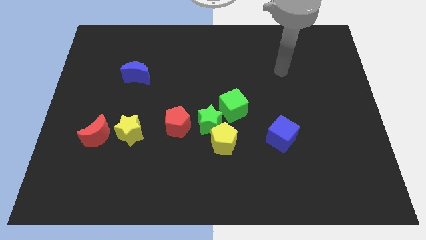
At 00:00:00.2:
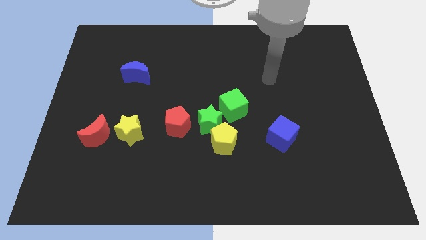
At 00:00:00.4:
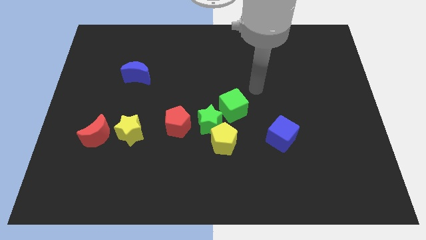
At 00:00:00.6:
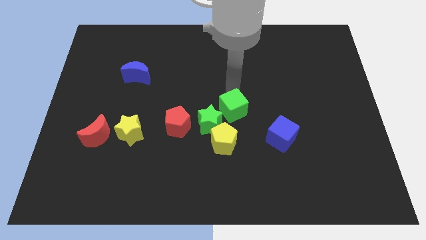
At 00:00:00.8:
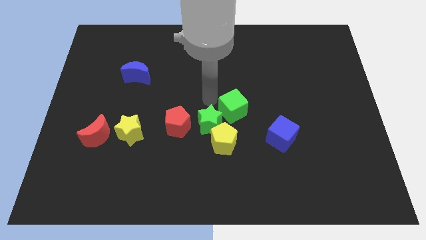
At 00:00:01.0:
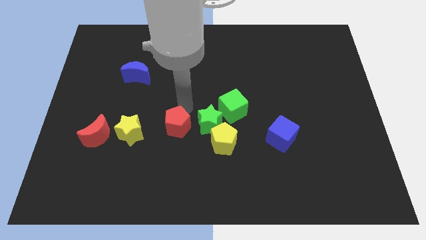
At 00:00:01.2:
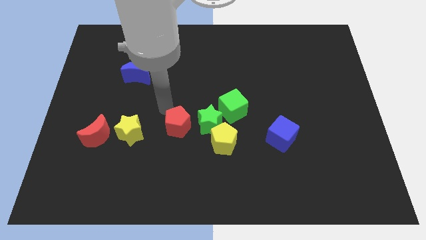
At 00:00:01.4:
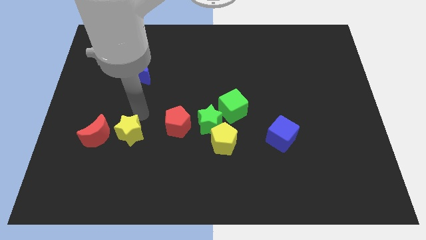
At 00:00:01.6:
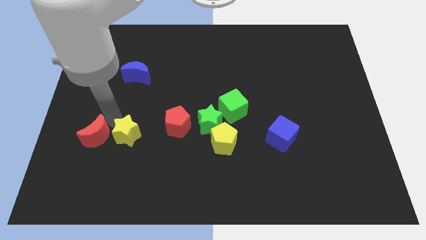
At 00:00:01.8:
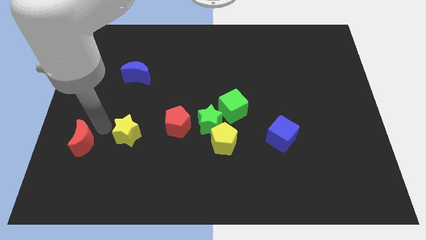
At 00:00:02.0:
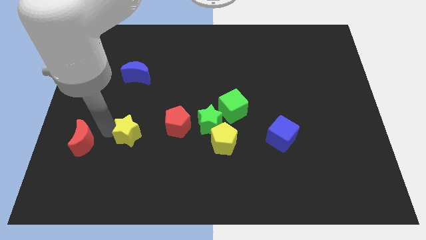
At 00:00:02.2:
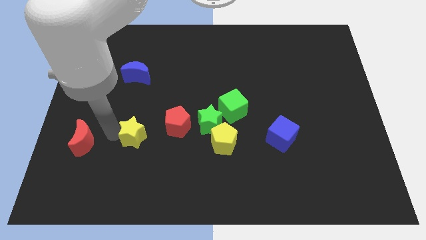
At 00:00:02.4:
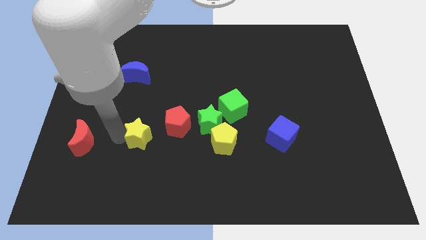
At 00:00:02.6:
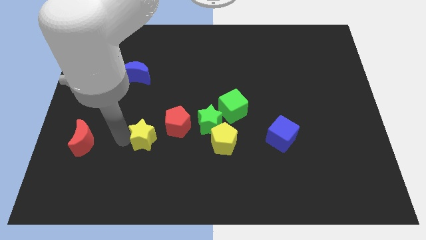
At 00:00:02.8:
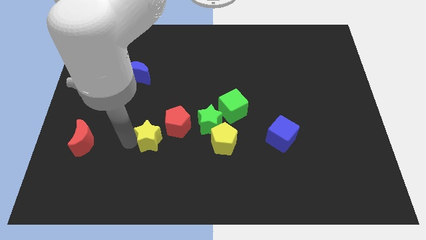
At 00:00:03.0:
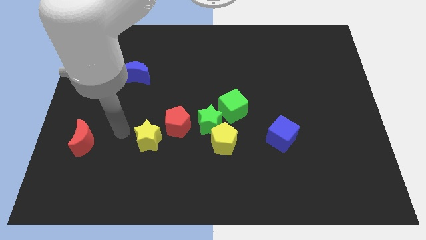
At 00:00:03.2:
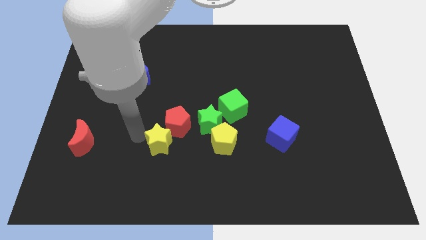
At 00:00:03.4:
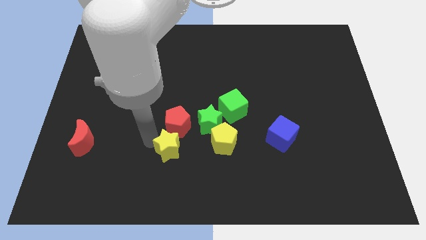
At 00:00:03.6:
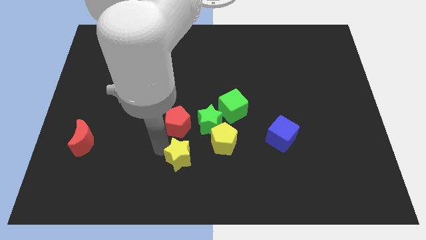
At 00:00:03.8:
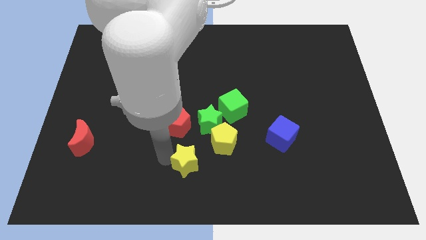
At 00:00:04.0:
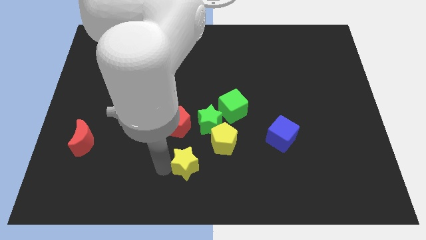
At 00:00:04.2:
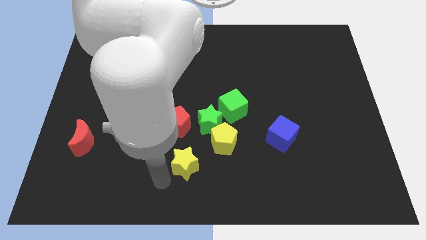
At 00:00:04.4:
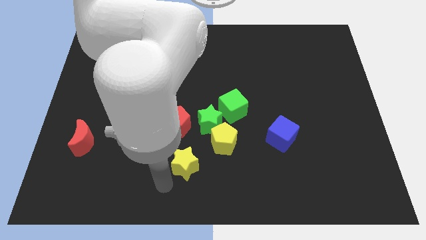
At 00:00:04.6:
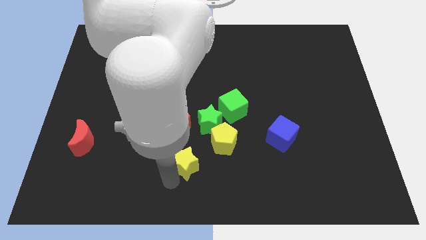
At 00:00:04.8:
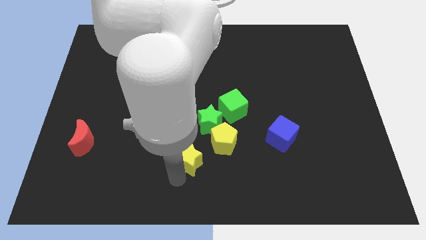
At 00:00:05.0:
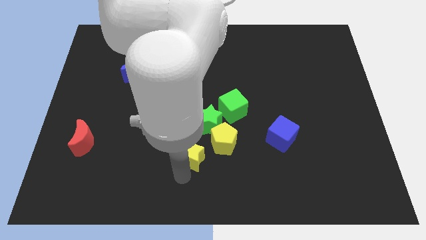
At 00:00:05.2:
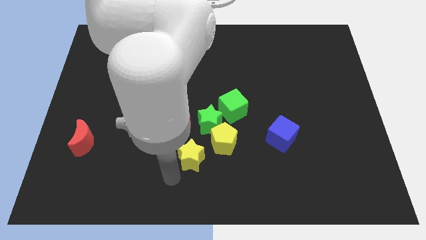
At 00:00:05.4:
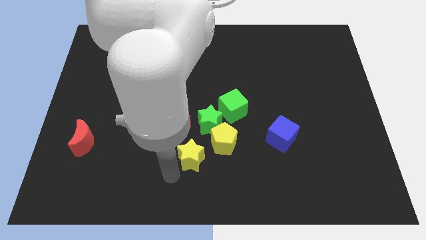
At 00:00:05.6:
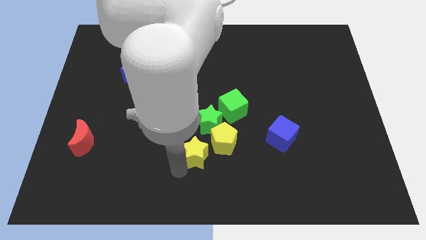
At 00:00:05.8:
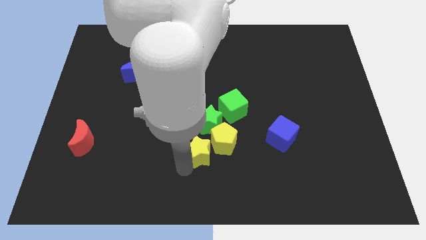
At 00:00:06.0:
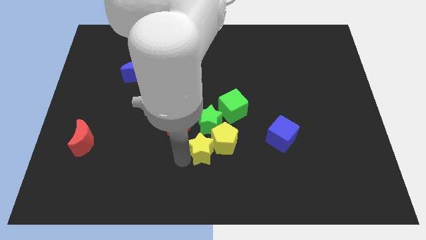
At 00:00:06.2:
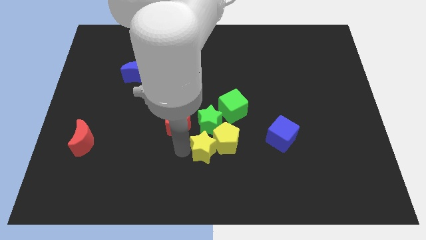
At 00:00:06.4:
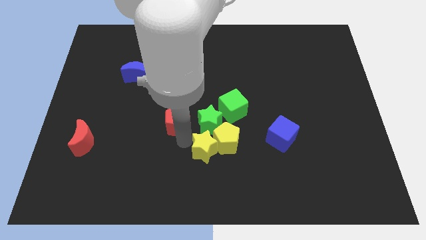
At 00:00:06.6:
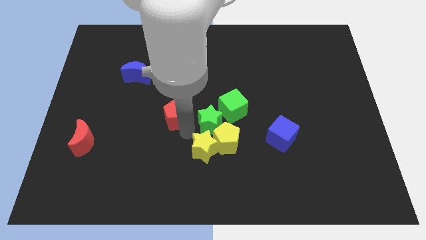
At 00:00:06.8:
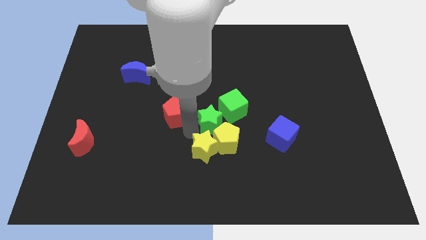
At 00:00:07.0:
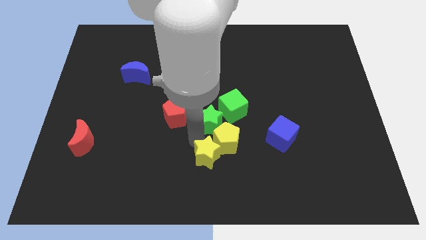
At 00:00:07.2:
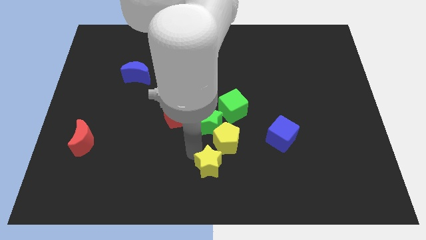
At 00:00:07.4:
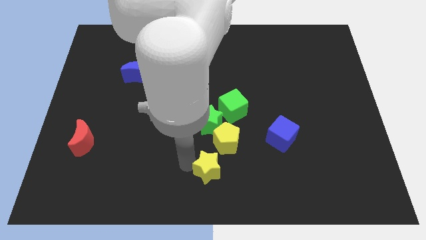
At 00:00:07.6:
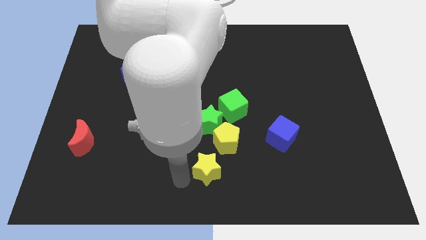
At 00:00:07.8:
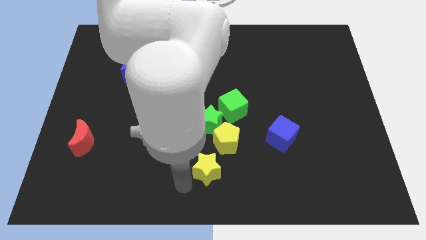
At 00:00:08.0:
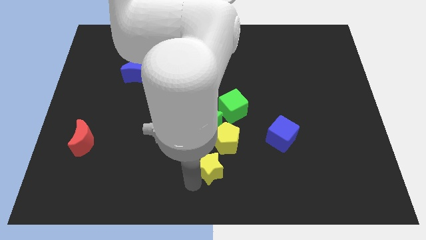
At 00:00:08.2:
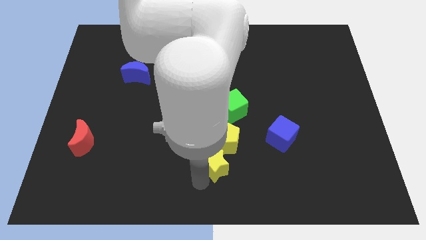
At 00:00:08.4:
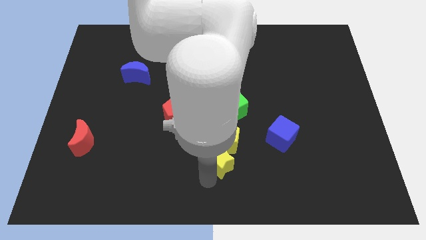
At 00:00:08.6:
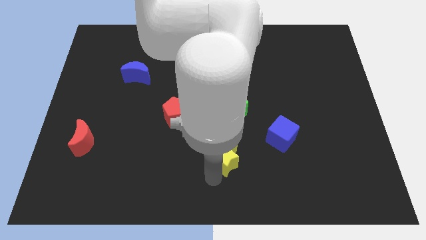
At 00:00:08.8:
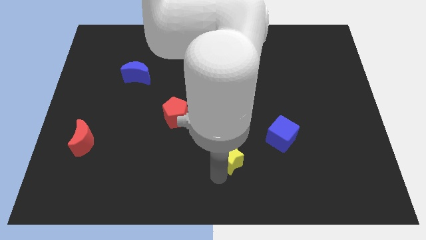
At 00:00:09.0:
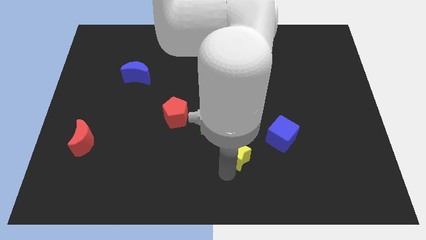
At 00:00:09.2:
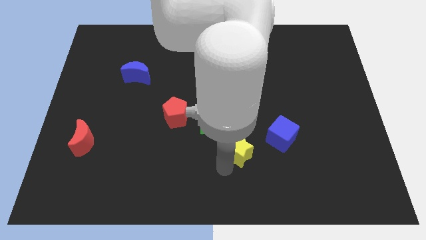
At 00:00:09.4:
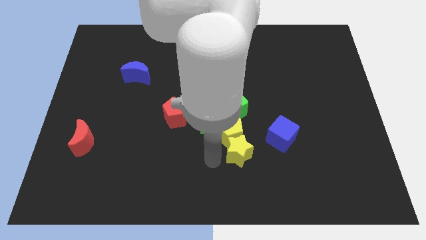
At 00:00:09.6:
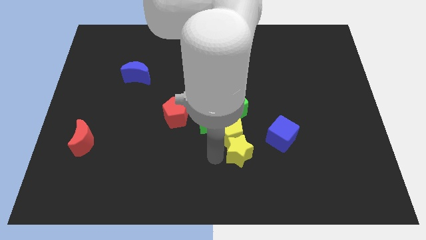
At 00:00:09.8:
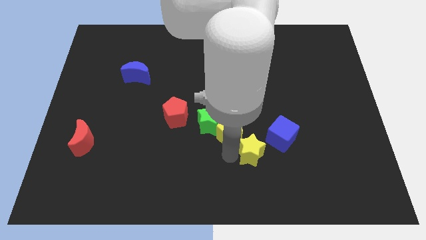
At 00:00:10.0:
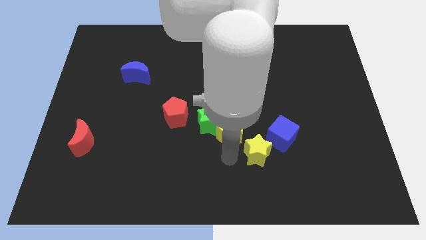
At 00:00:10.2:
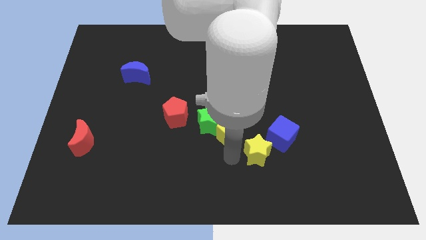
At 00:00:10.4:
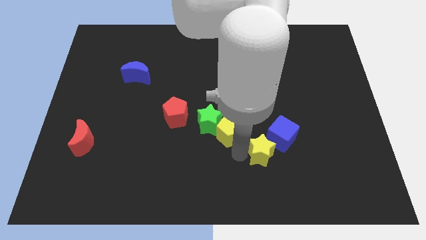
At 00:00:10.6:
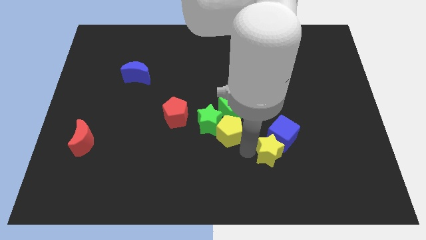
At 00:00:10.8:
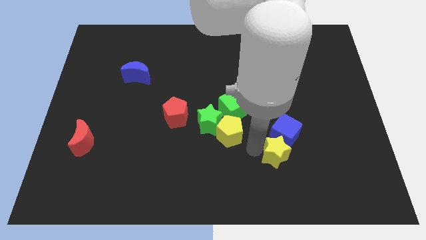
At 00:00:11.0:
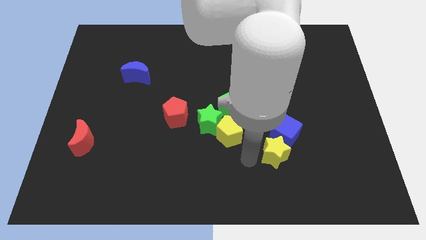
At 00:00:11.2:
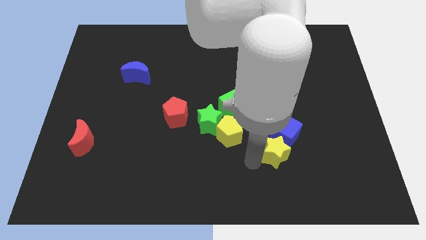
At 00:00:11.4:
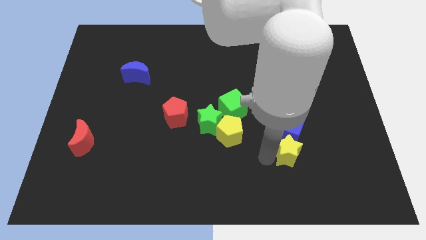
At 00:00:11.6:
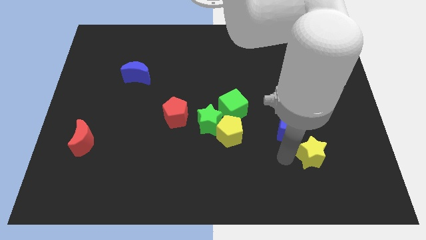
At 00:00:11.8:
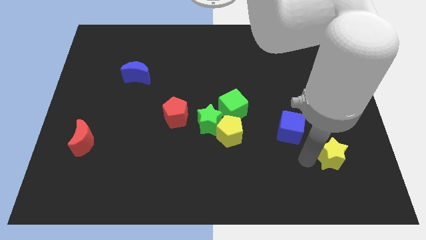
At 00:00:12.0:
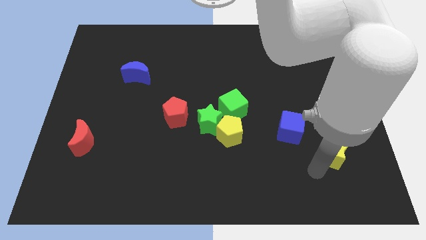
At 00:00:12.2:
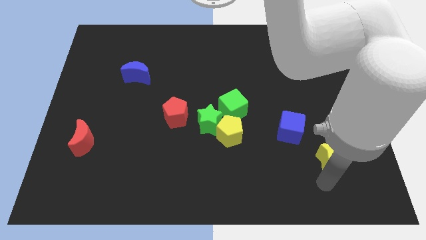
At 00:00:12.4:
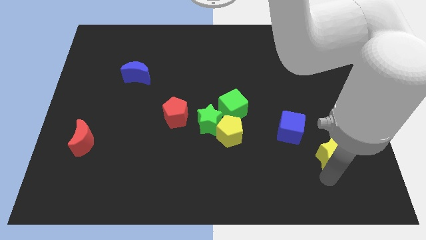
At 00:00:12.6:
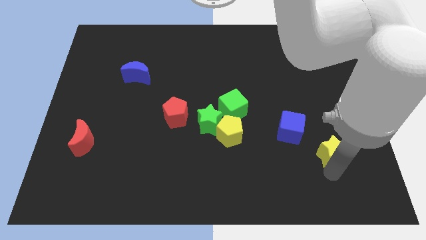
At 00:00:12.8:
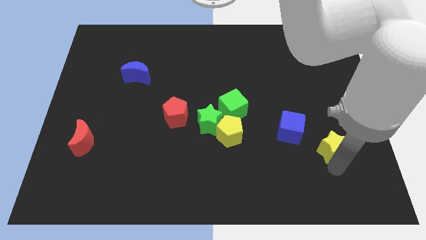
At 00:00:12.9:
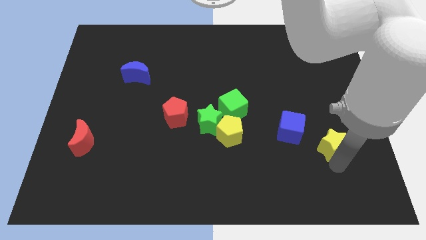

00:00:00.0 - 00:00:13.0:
slide the yellow star just right of the blue cube

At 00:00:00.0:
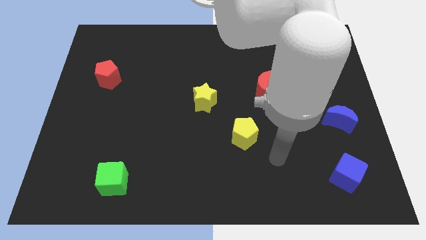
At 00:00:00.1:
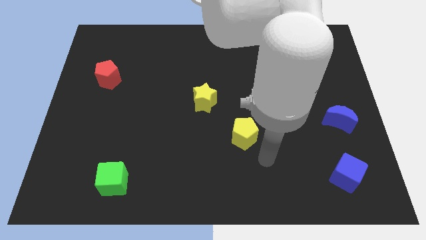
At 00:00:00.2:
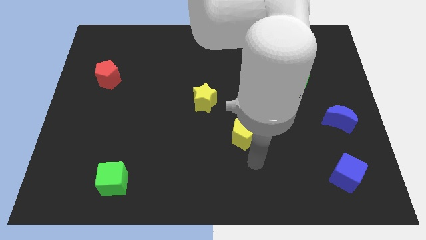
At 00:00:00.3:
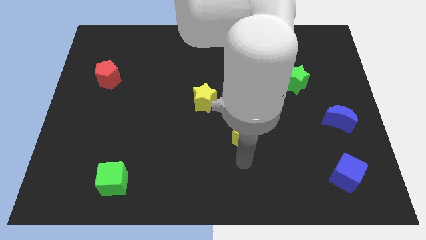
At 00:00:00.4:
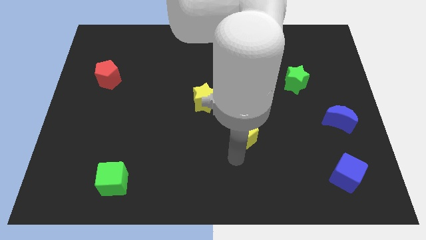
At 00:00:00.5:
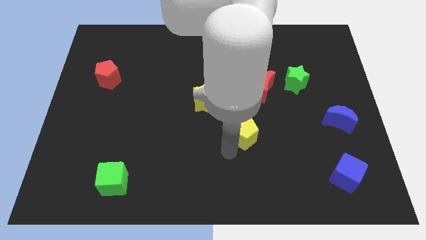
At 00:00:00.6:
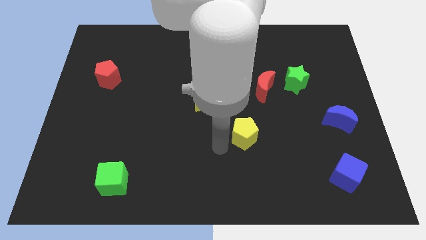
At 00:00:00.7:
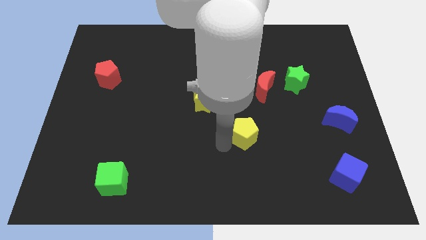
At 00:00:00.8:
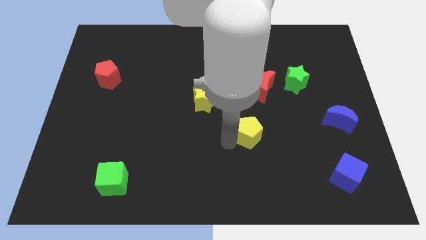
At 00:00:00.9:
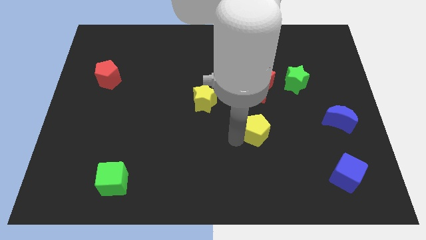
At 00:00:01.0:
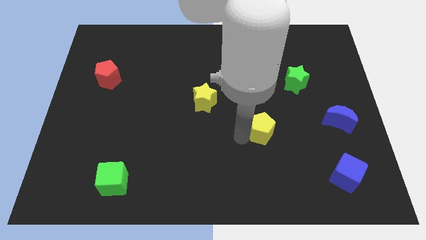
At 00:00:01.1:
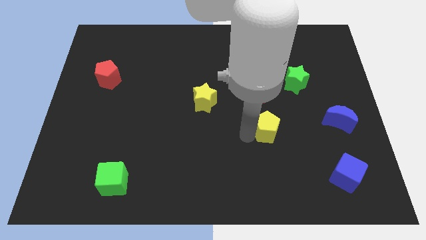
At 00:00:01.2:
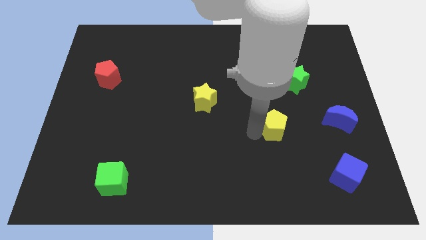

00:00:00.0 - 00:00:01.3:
put the yellow pentagon just left of the blue moon
